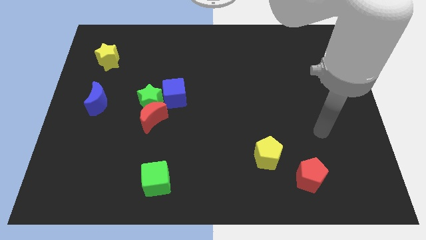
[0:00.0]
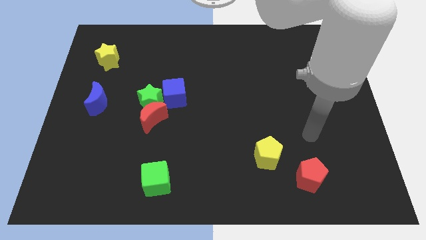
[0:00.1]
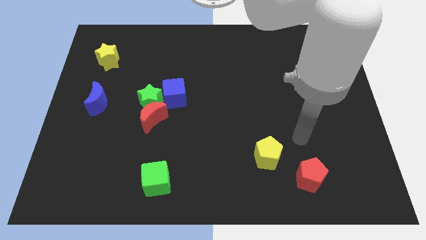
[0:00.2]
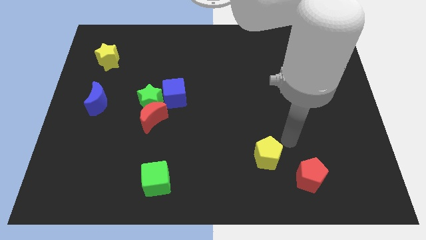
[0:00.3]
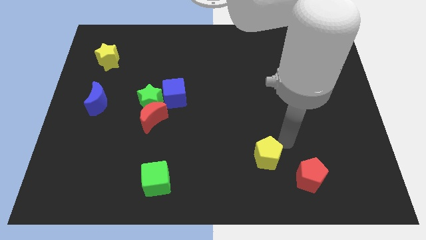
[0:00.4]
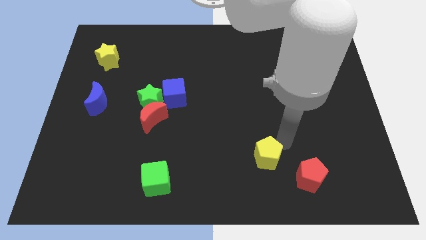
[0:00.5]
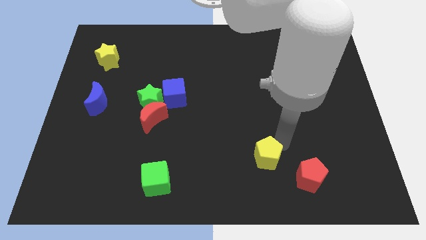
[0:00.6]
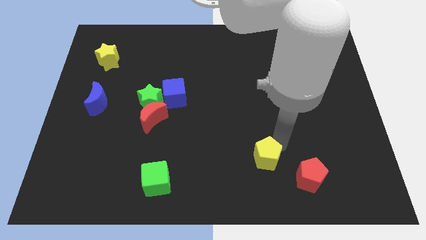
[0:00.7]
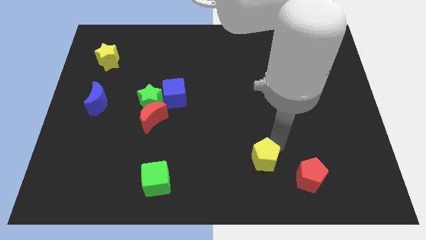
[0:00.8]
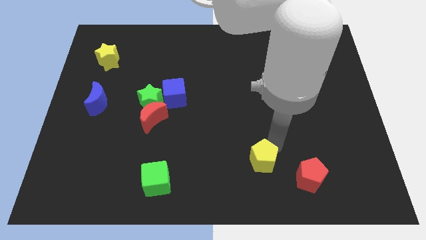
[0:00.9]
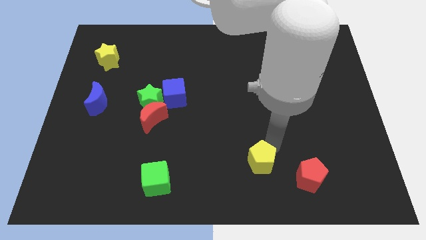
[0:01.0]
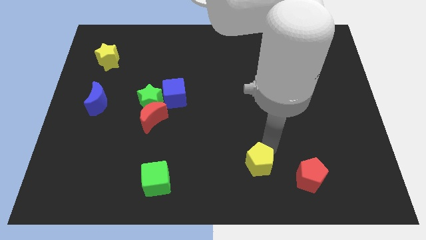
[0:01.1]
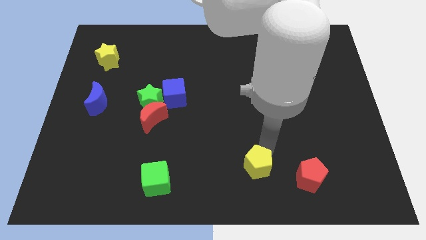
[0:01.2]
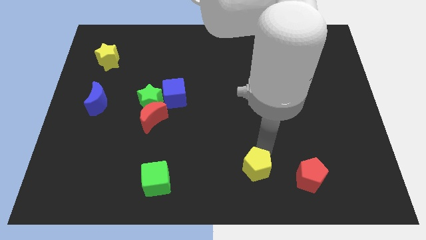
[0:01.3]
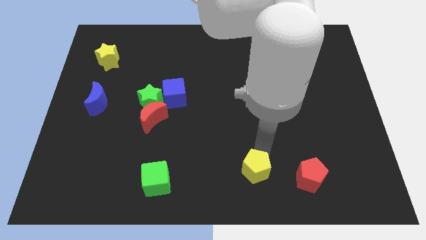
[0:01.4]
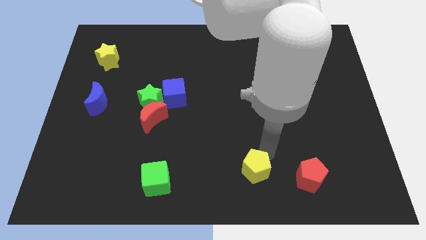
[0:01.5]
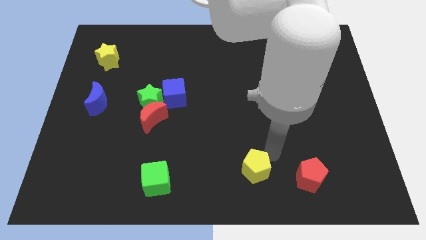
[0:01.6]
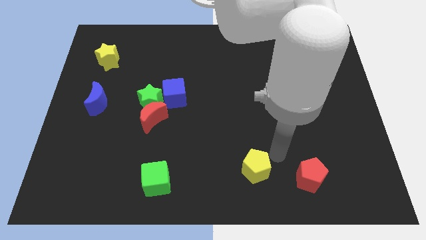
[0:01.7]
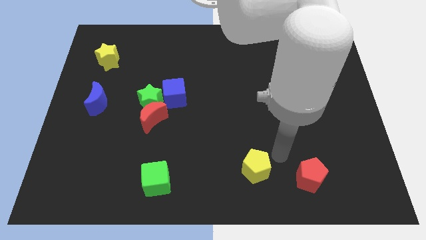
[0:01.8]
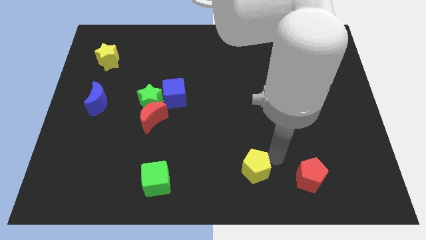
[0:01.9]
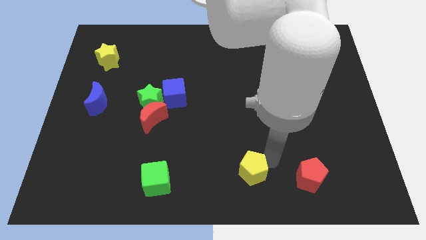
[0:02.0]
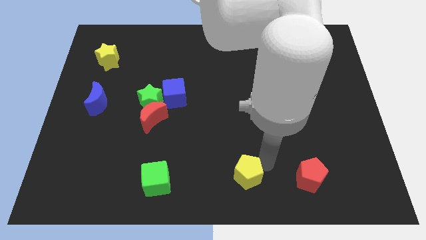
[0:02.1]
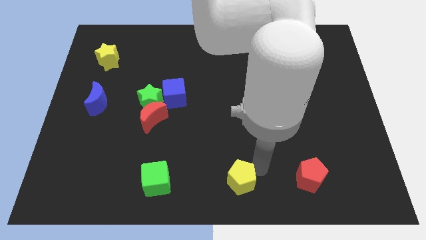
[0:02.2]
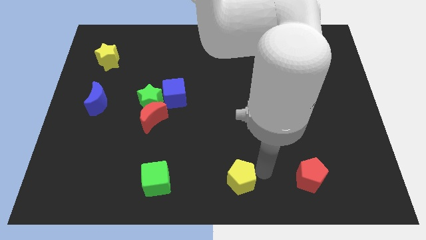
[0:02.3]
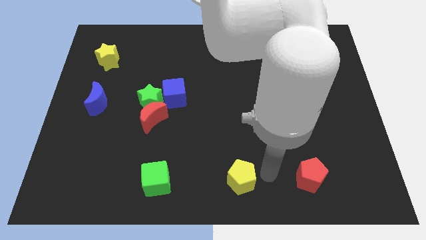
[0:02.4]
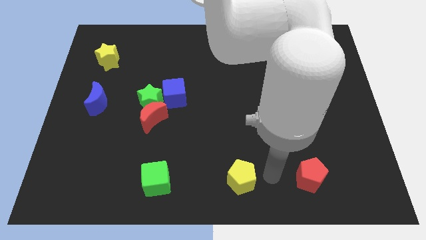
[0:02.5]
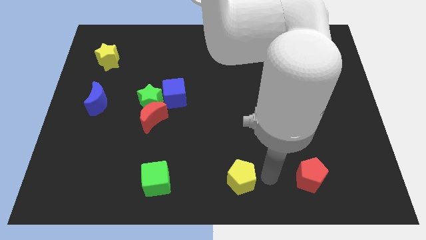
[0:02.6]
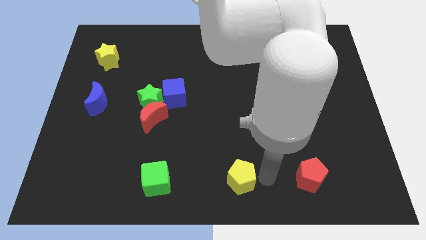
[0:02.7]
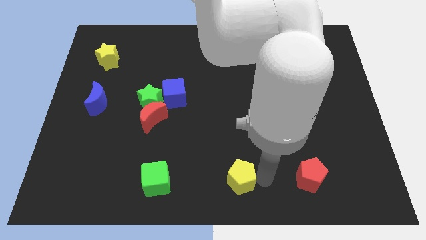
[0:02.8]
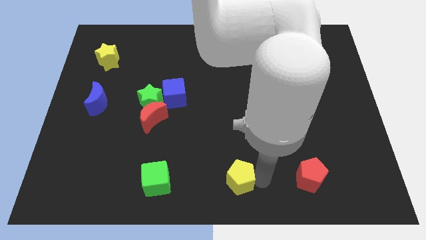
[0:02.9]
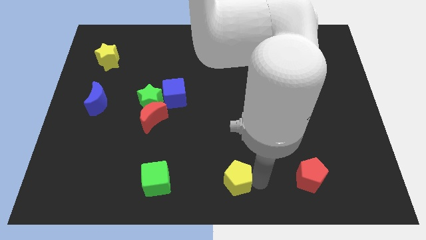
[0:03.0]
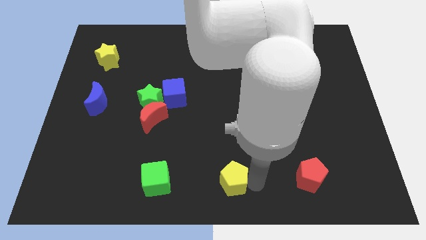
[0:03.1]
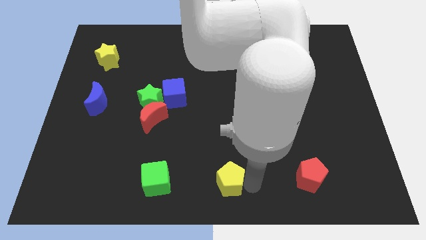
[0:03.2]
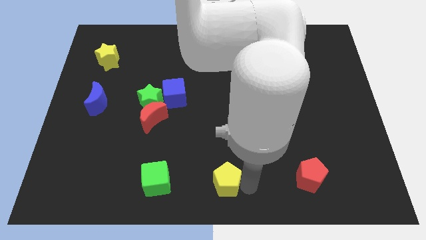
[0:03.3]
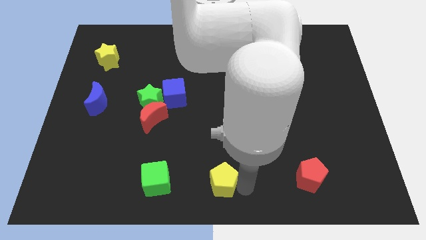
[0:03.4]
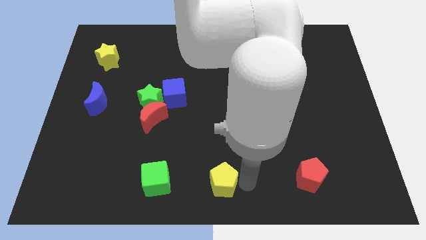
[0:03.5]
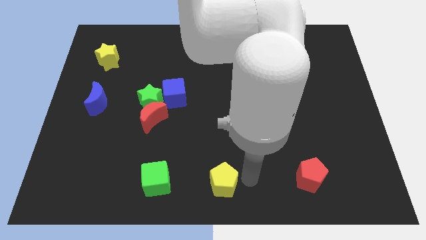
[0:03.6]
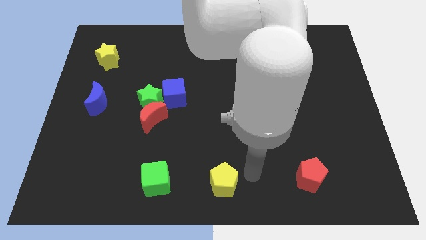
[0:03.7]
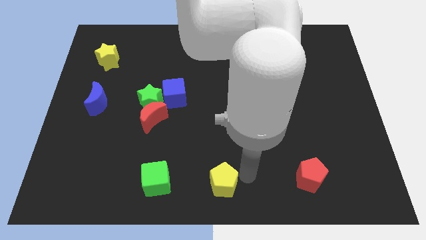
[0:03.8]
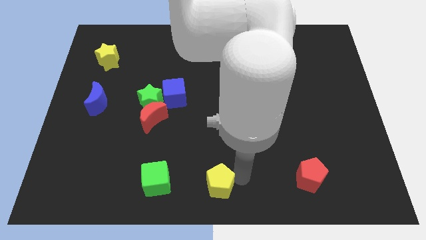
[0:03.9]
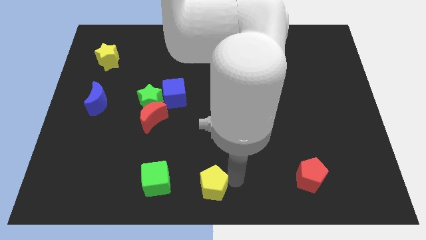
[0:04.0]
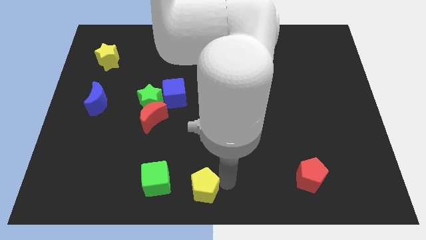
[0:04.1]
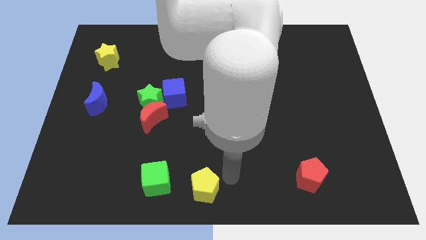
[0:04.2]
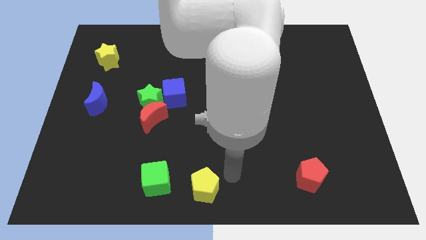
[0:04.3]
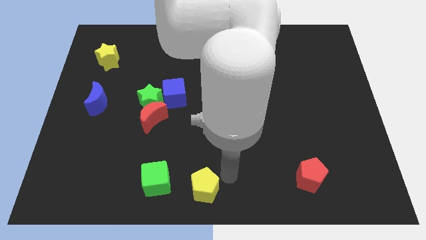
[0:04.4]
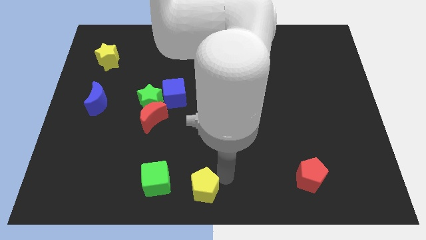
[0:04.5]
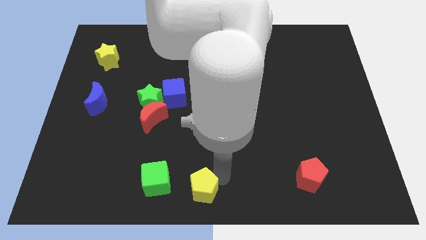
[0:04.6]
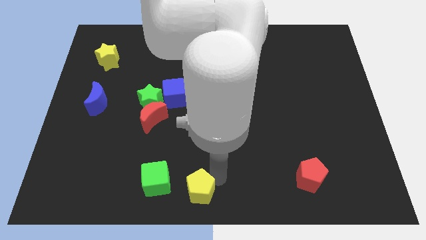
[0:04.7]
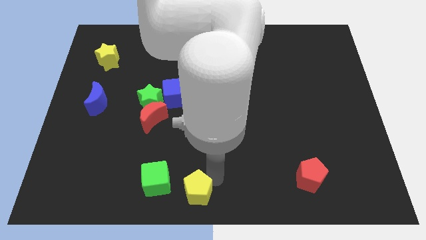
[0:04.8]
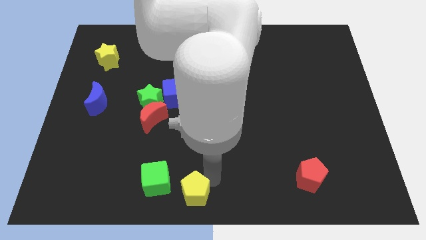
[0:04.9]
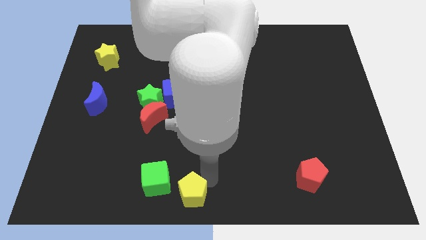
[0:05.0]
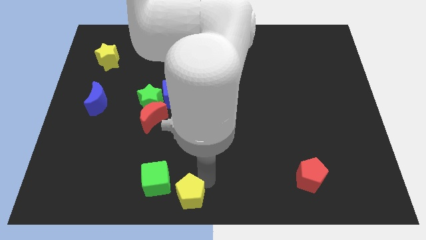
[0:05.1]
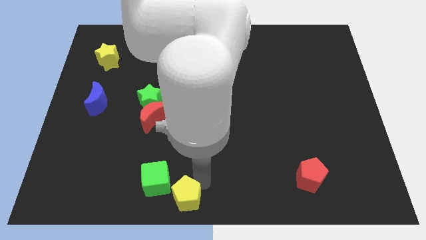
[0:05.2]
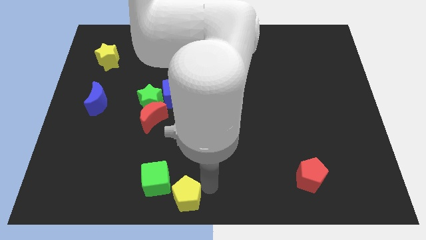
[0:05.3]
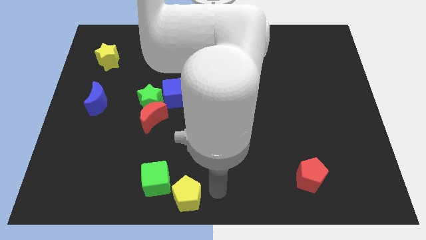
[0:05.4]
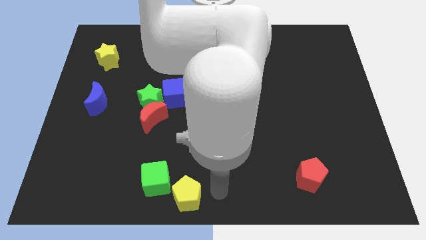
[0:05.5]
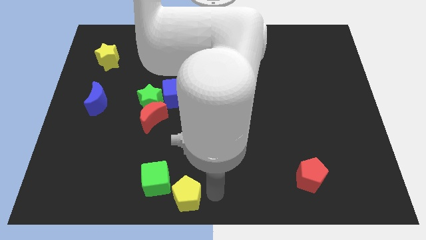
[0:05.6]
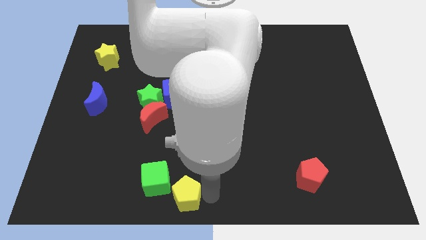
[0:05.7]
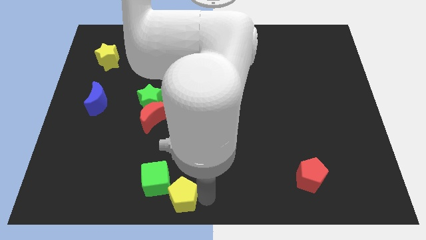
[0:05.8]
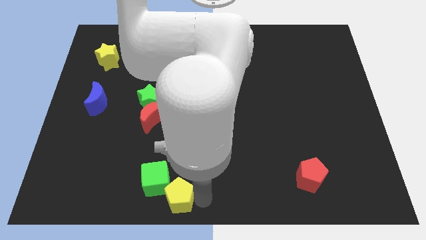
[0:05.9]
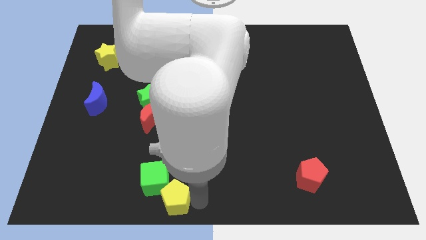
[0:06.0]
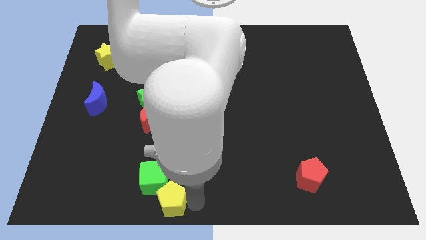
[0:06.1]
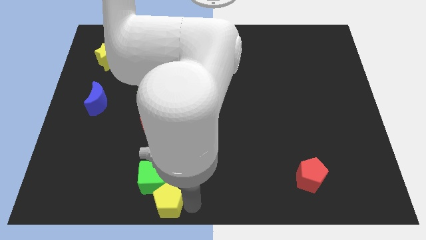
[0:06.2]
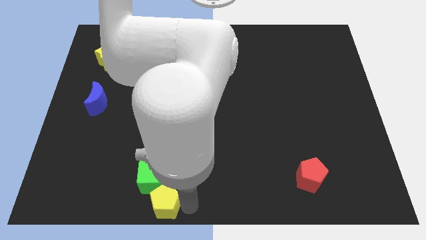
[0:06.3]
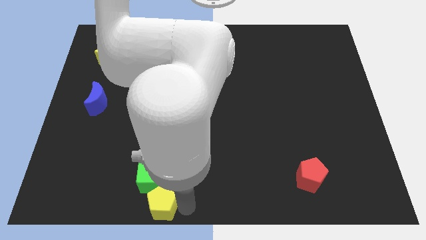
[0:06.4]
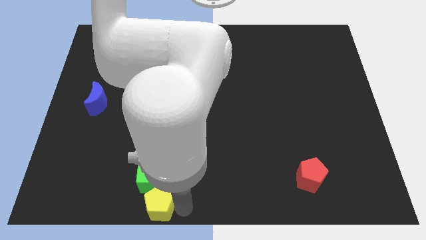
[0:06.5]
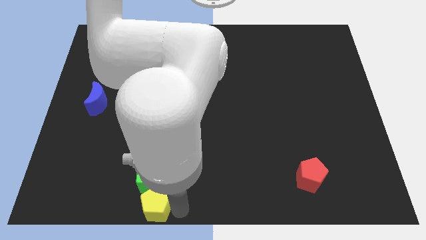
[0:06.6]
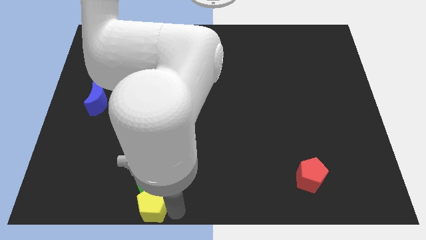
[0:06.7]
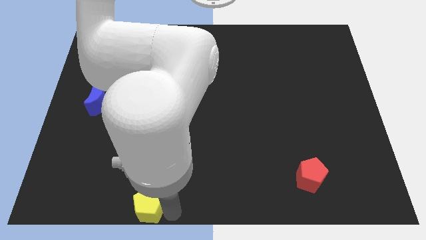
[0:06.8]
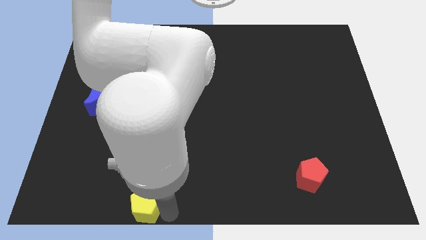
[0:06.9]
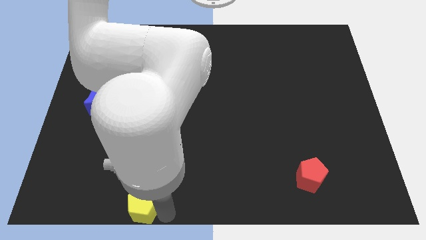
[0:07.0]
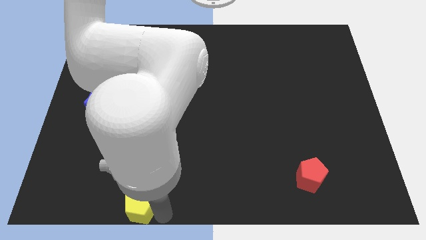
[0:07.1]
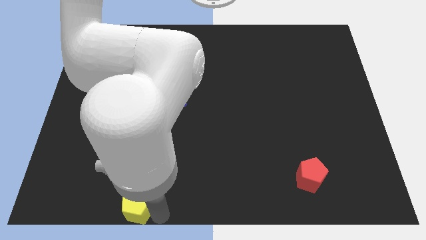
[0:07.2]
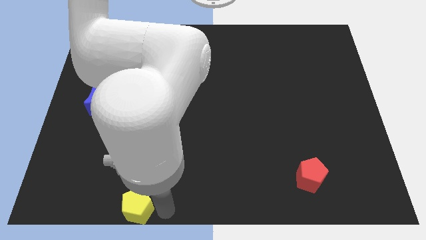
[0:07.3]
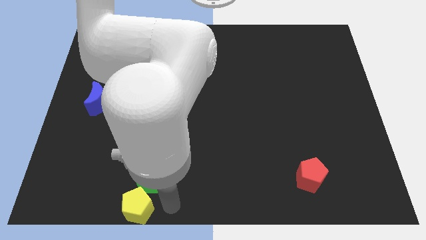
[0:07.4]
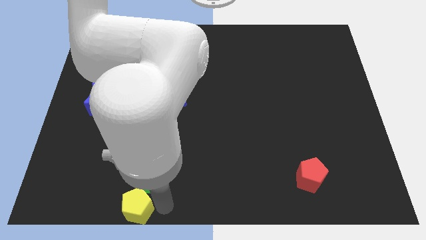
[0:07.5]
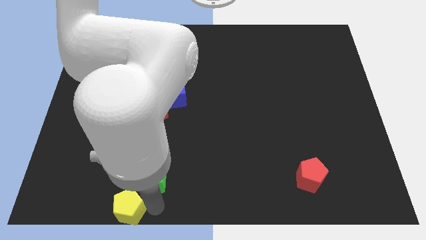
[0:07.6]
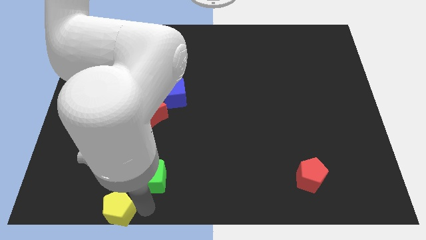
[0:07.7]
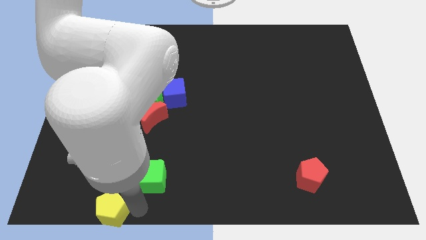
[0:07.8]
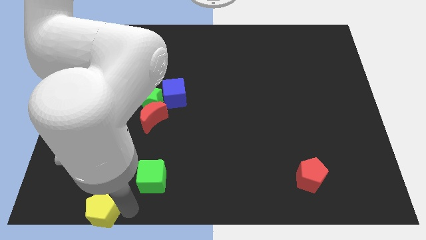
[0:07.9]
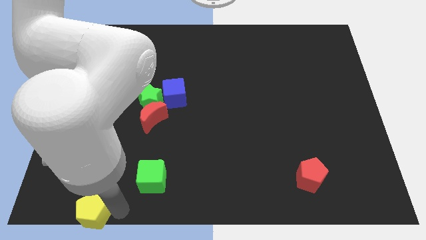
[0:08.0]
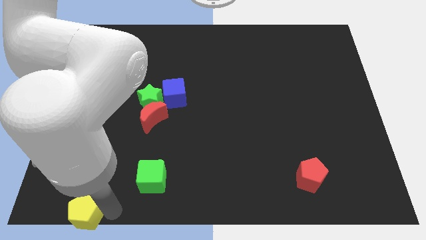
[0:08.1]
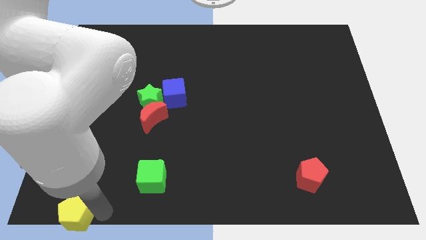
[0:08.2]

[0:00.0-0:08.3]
push the yellow pentagon to the bottom left of the board
